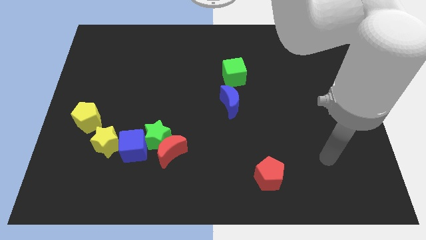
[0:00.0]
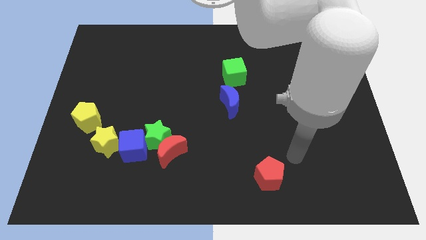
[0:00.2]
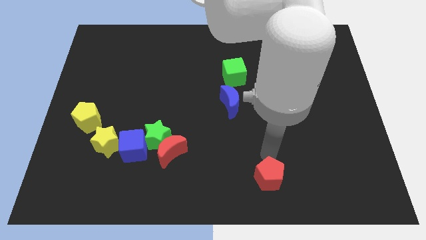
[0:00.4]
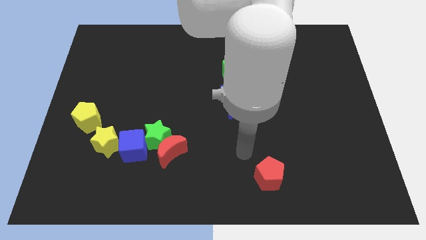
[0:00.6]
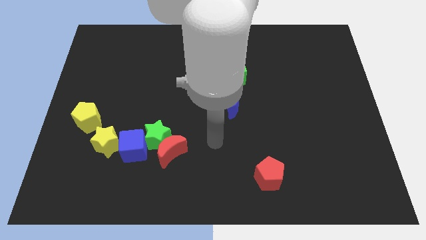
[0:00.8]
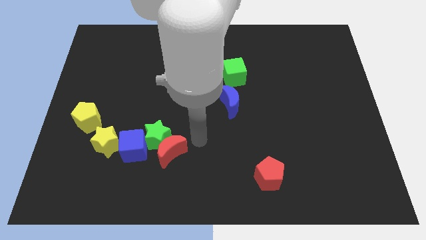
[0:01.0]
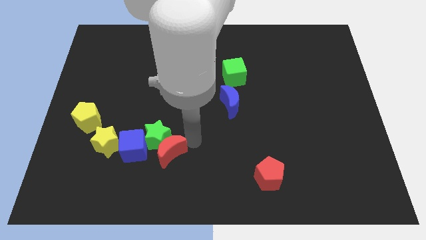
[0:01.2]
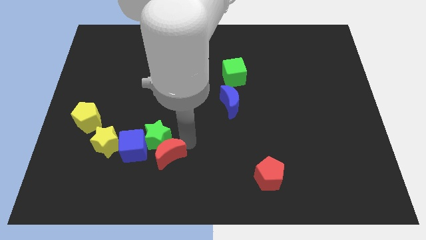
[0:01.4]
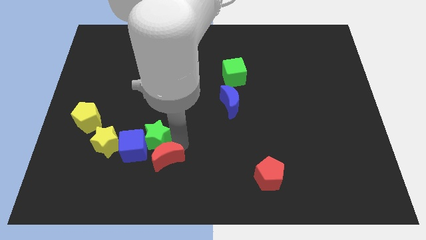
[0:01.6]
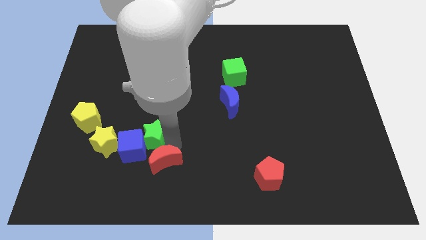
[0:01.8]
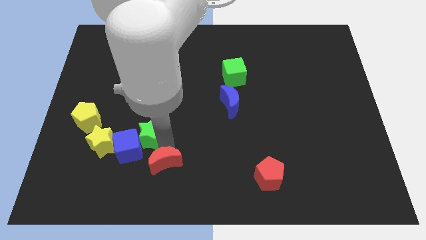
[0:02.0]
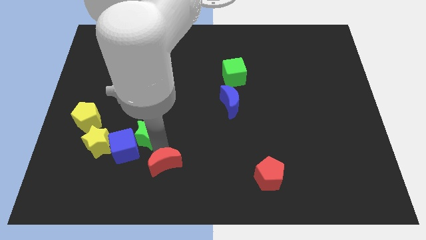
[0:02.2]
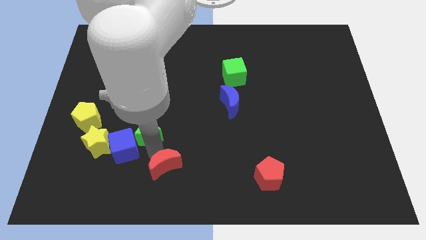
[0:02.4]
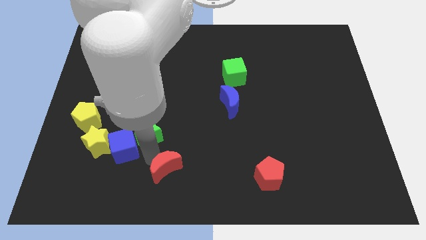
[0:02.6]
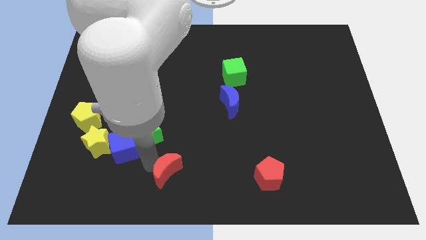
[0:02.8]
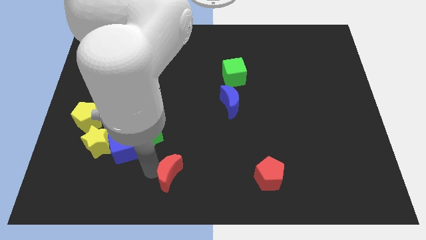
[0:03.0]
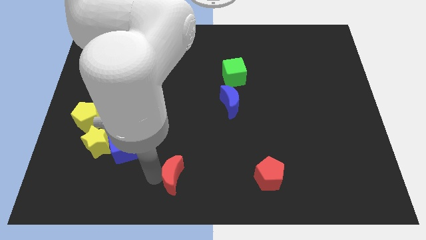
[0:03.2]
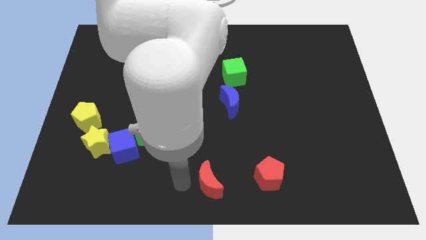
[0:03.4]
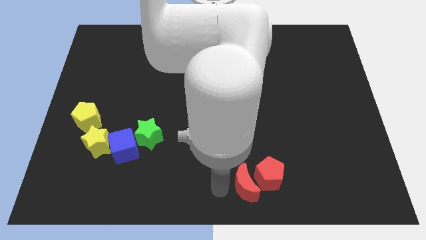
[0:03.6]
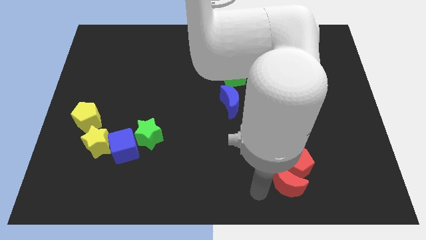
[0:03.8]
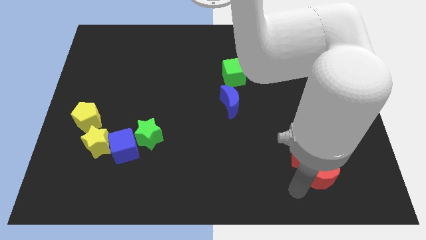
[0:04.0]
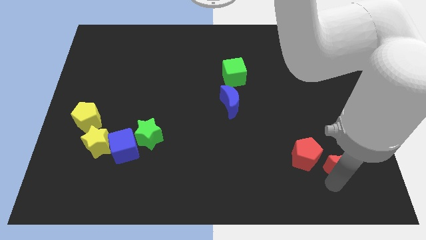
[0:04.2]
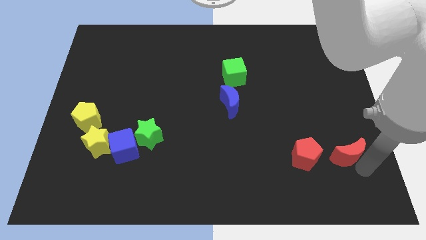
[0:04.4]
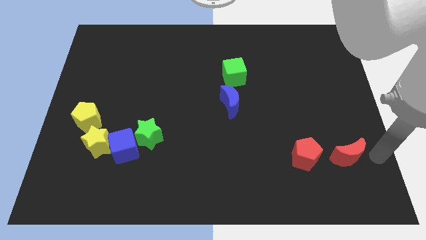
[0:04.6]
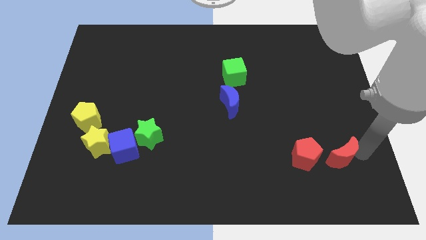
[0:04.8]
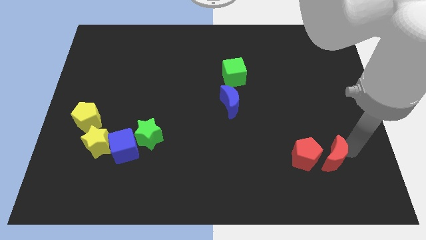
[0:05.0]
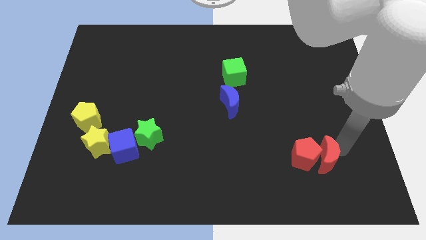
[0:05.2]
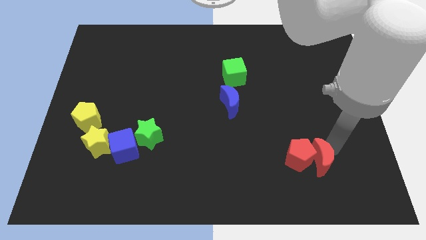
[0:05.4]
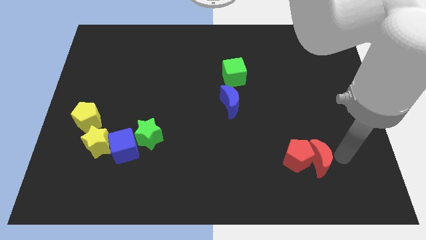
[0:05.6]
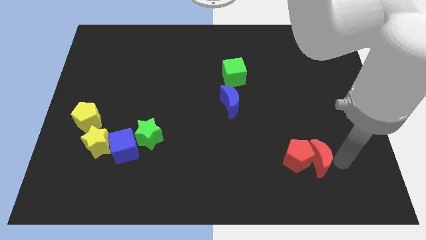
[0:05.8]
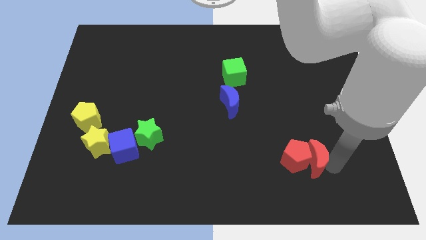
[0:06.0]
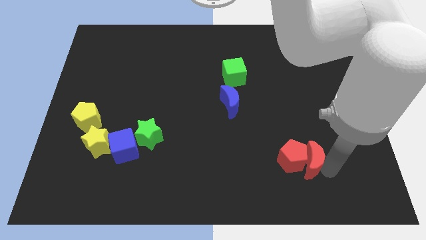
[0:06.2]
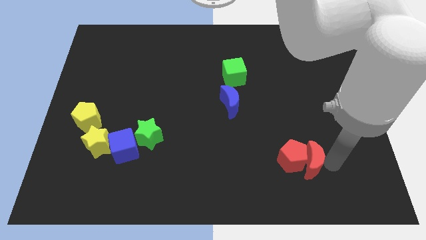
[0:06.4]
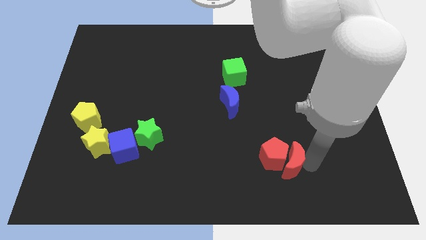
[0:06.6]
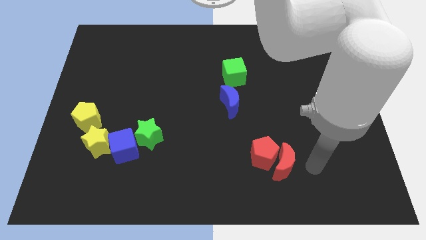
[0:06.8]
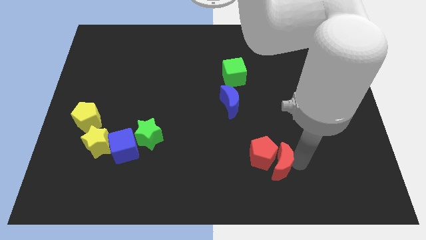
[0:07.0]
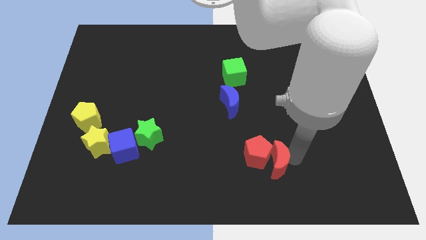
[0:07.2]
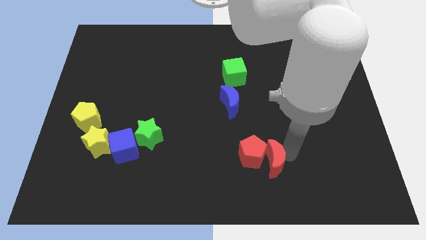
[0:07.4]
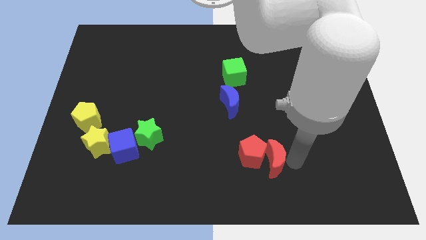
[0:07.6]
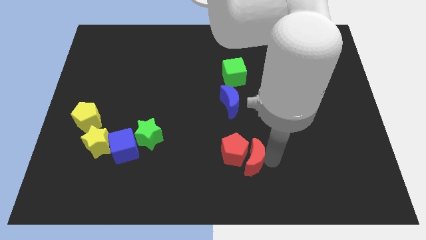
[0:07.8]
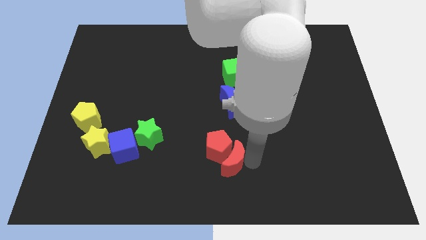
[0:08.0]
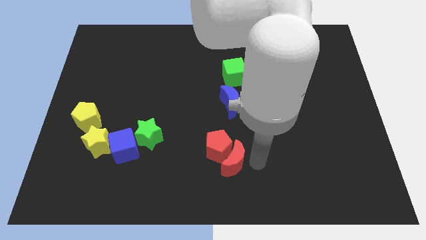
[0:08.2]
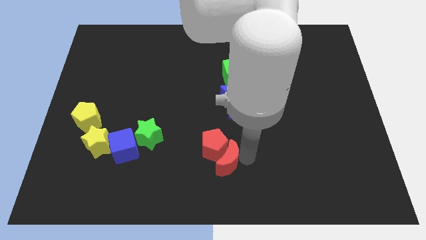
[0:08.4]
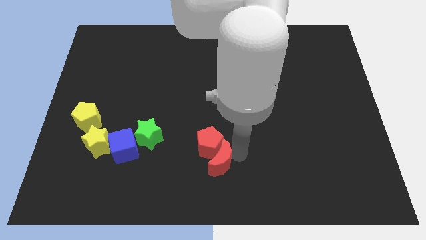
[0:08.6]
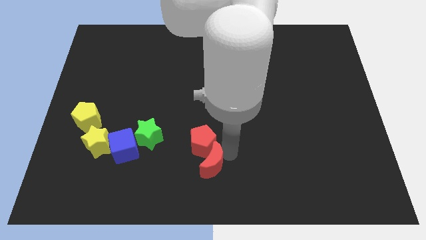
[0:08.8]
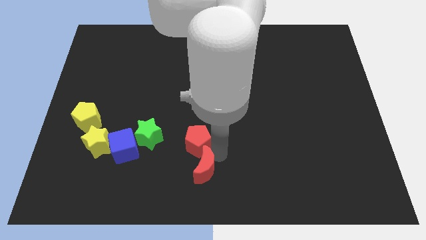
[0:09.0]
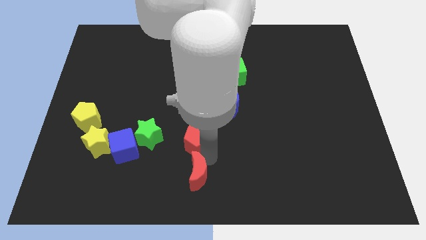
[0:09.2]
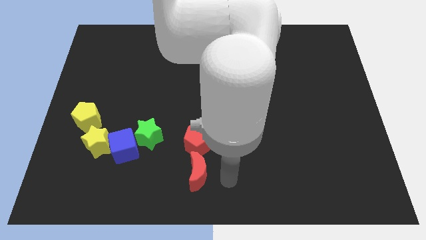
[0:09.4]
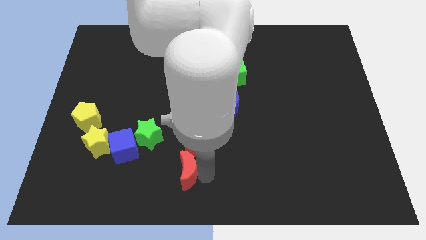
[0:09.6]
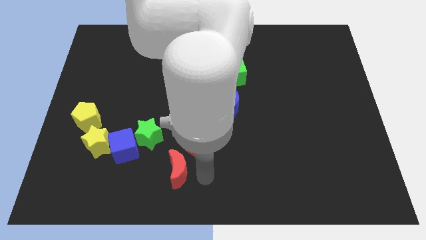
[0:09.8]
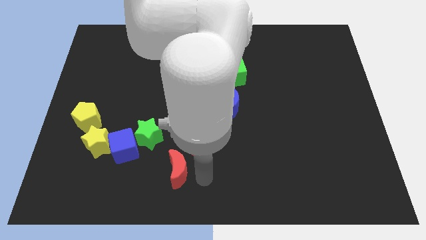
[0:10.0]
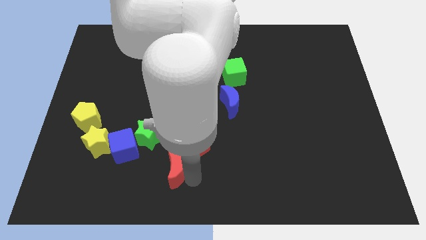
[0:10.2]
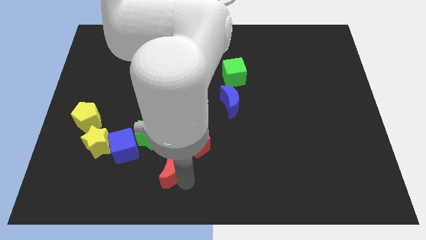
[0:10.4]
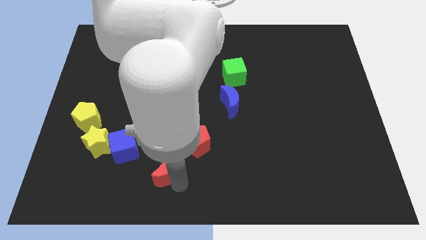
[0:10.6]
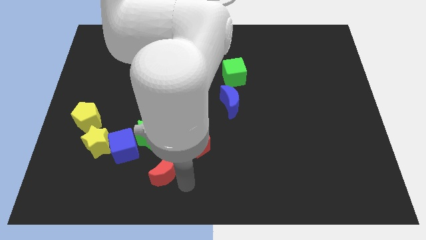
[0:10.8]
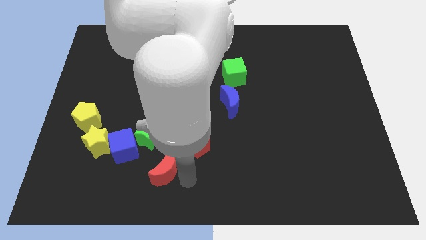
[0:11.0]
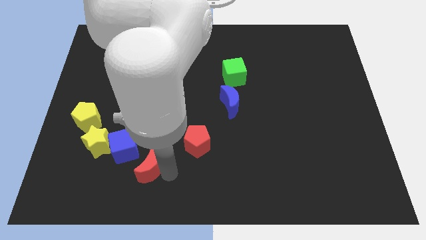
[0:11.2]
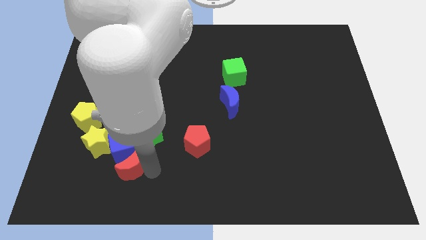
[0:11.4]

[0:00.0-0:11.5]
slide the red moon to the bottom left side of the green star

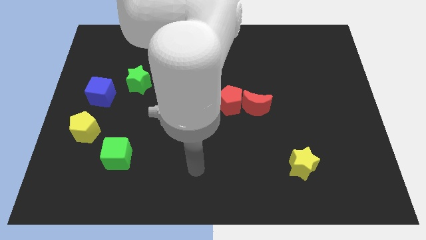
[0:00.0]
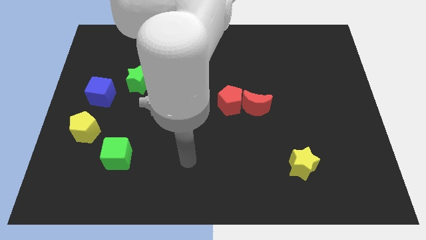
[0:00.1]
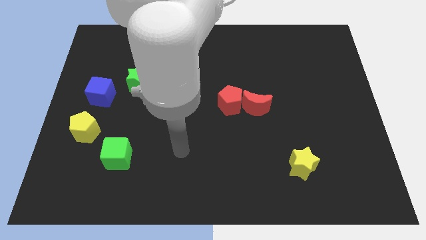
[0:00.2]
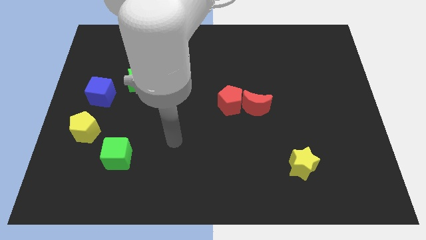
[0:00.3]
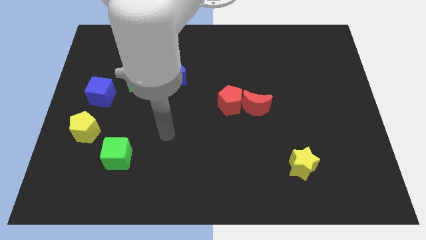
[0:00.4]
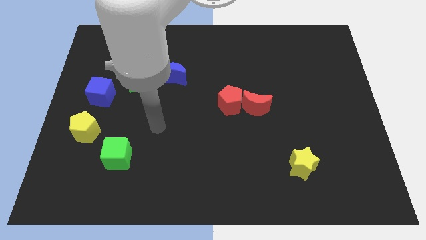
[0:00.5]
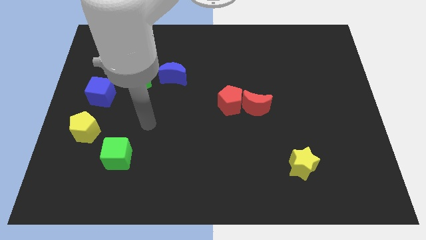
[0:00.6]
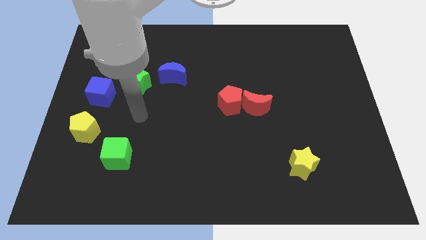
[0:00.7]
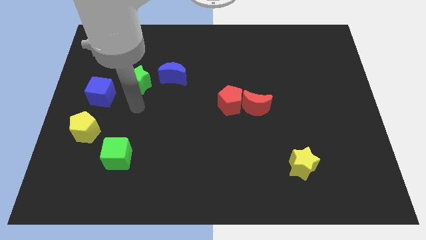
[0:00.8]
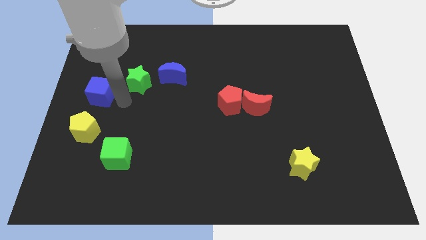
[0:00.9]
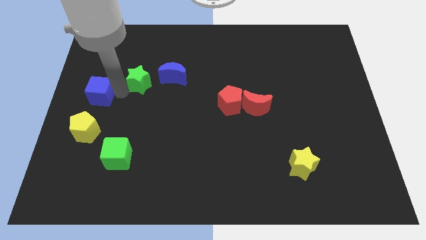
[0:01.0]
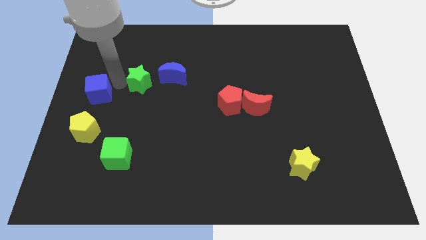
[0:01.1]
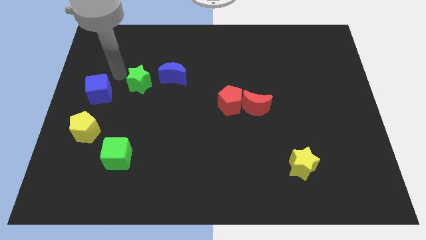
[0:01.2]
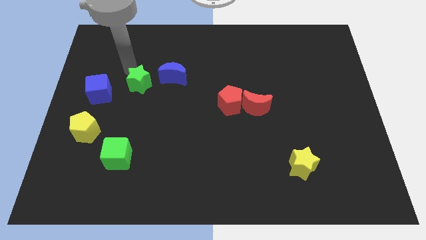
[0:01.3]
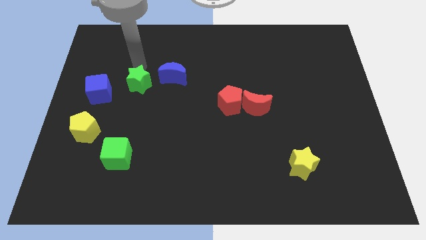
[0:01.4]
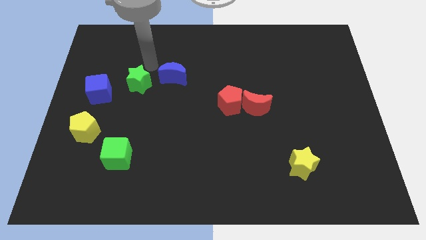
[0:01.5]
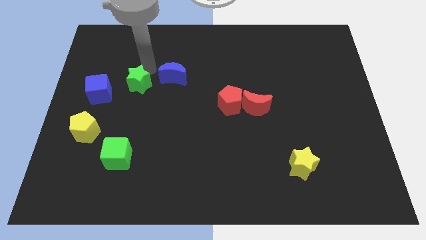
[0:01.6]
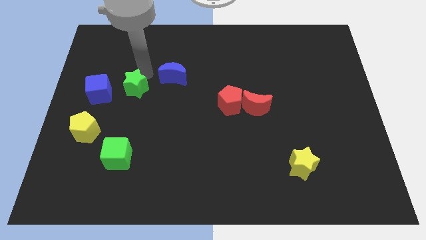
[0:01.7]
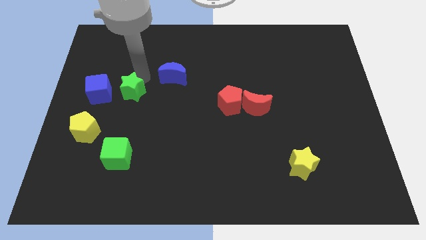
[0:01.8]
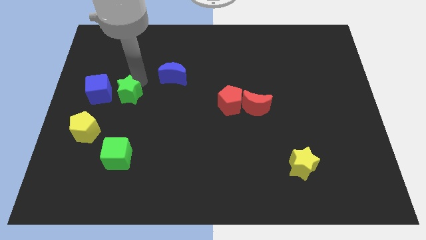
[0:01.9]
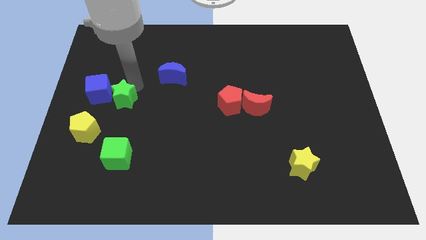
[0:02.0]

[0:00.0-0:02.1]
slide the green star to the top right side of the yellow pentagon
